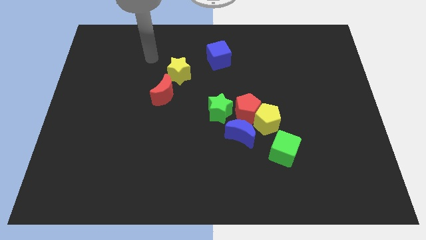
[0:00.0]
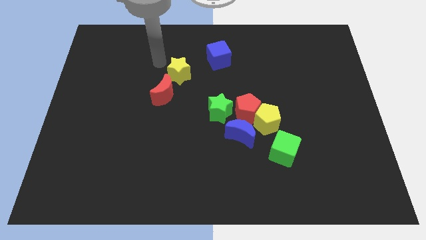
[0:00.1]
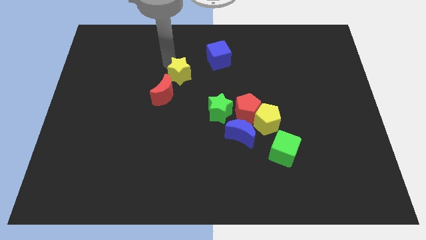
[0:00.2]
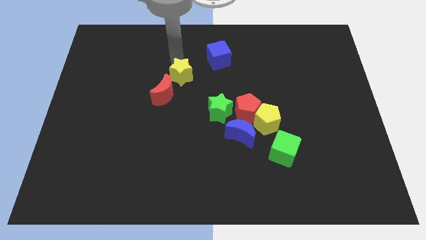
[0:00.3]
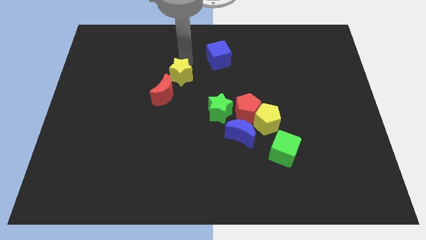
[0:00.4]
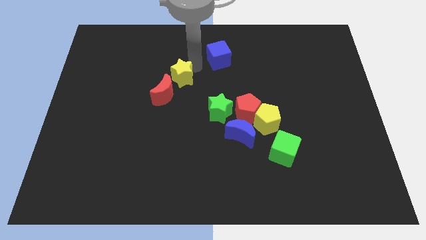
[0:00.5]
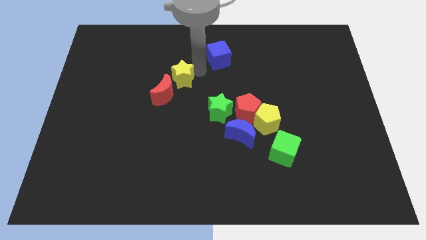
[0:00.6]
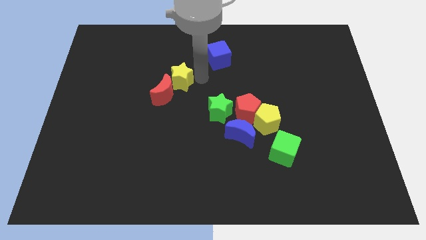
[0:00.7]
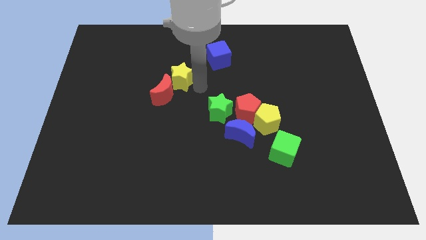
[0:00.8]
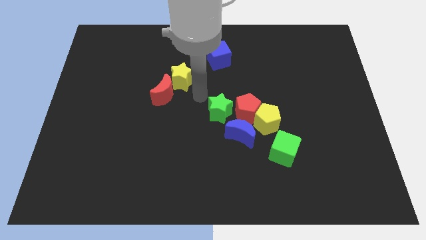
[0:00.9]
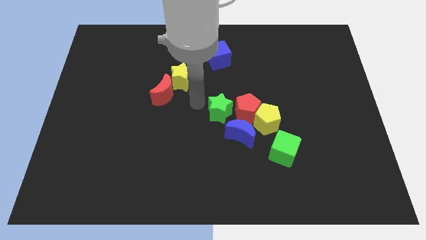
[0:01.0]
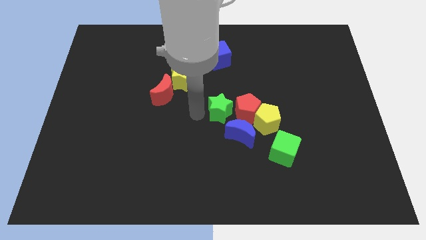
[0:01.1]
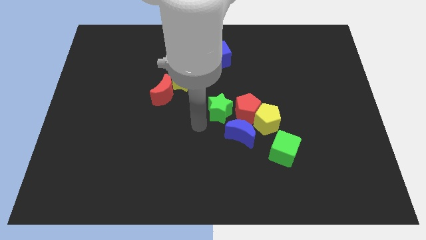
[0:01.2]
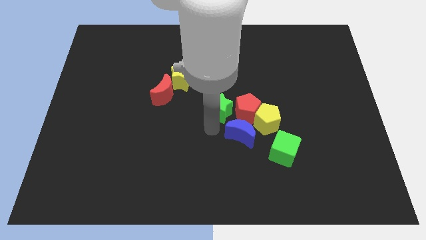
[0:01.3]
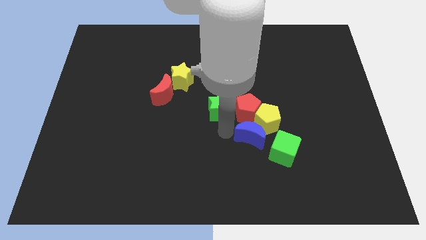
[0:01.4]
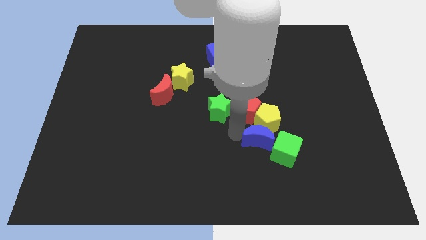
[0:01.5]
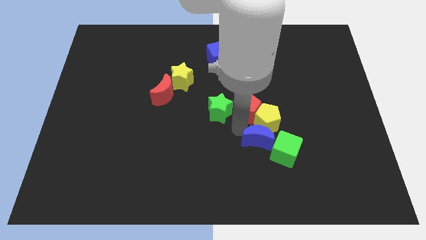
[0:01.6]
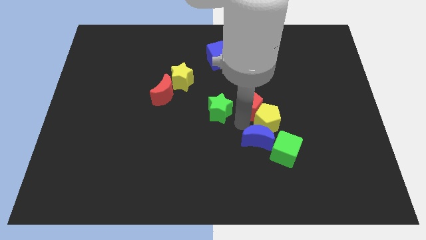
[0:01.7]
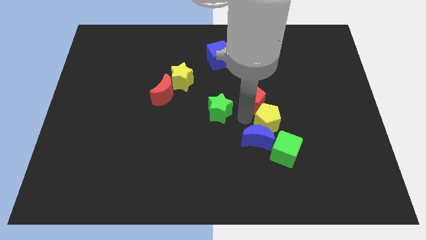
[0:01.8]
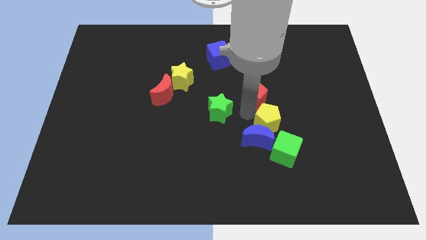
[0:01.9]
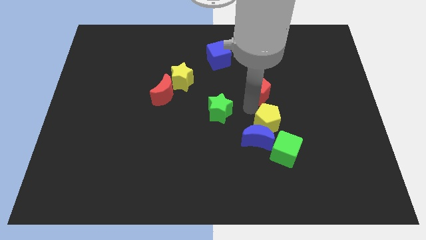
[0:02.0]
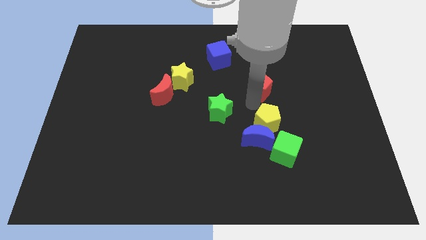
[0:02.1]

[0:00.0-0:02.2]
move the red pentagon away from the yellow pentagon, green star, and blue moon

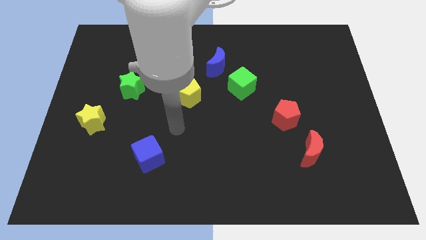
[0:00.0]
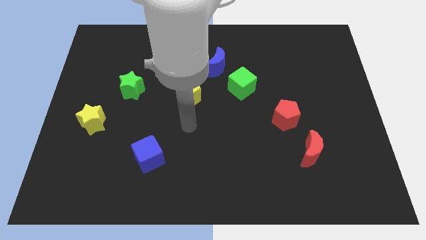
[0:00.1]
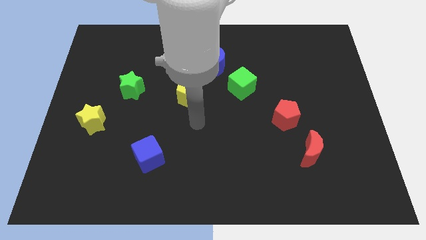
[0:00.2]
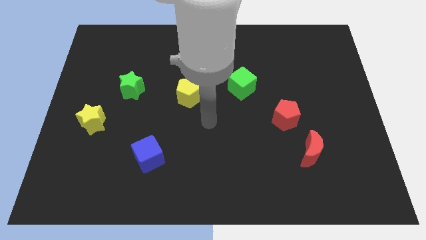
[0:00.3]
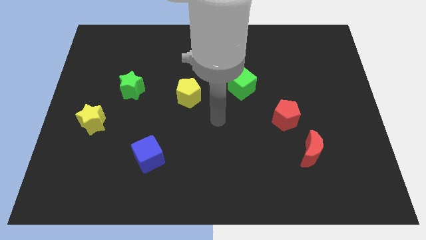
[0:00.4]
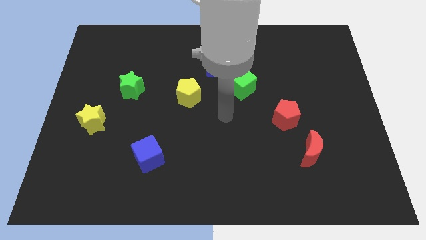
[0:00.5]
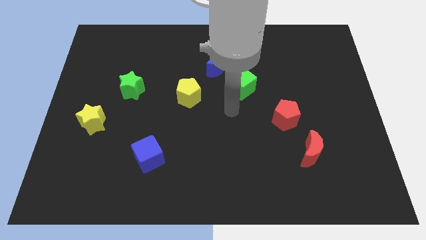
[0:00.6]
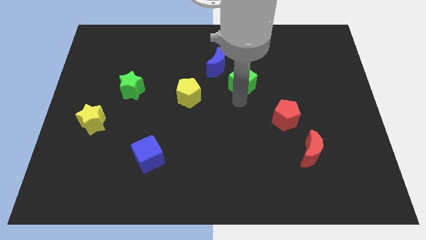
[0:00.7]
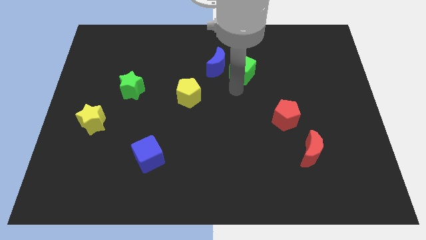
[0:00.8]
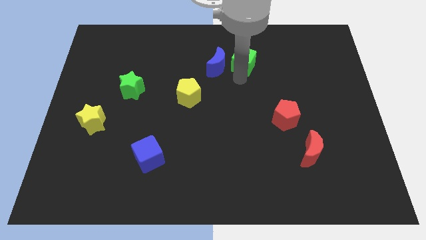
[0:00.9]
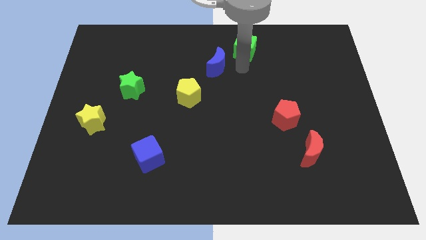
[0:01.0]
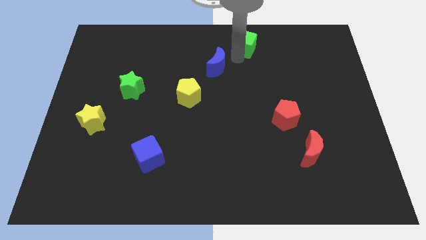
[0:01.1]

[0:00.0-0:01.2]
separate the blue moon from the green cube

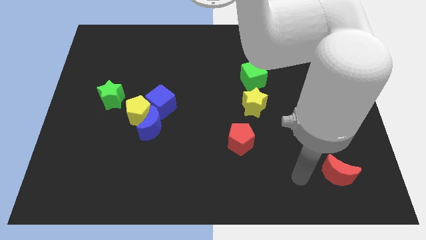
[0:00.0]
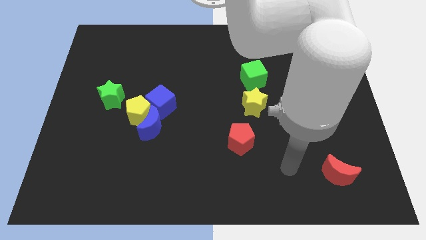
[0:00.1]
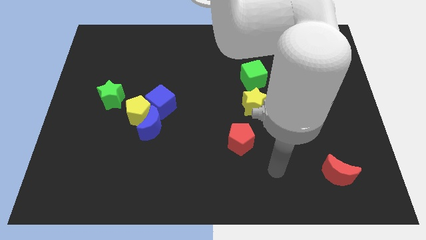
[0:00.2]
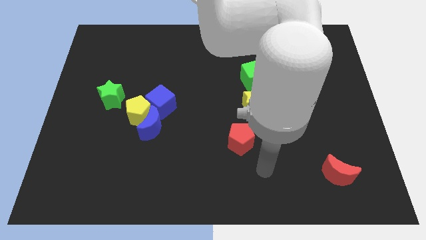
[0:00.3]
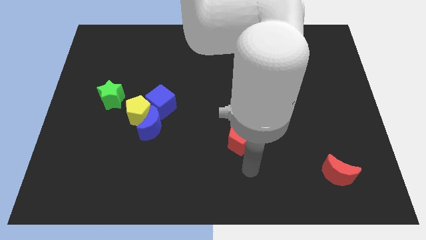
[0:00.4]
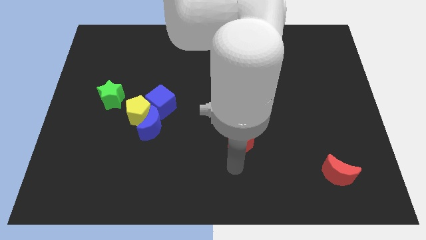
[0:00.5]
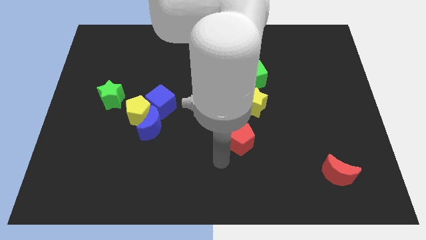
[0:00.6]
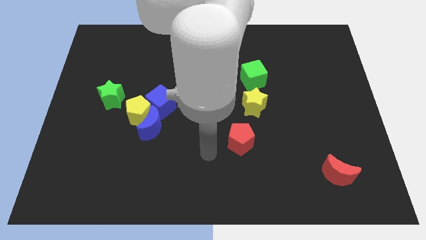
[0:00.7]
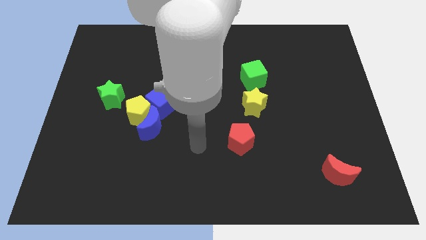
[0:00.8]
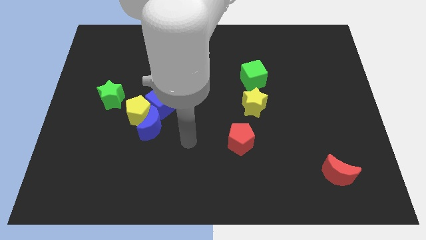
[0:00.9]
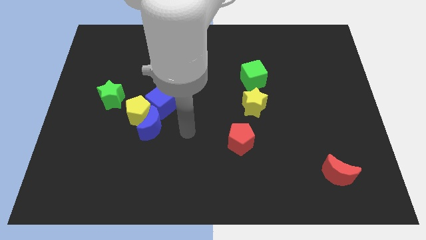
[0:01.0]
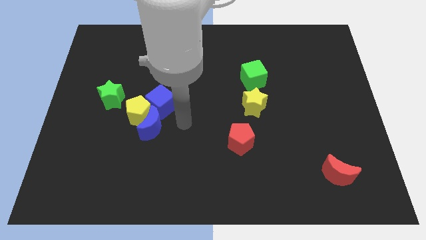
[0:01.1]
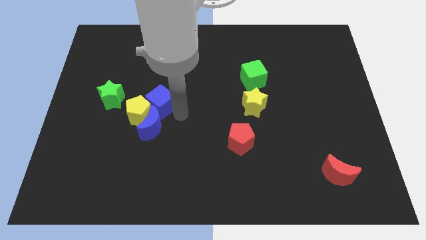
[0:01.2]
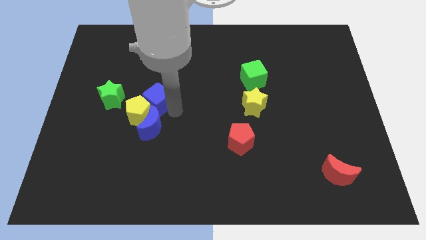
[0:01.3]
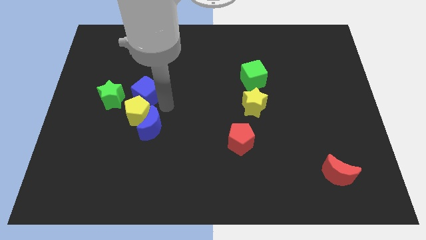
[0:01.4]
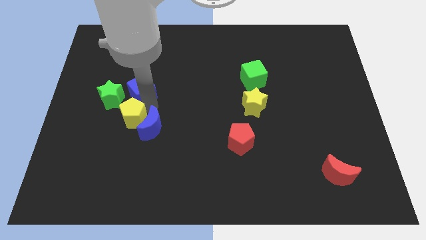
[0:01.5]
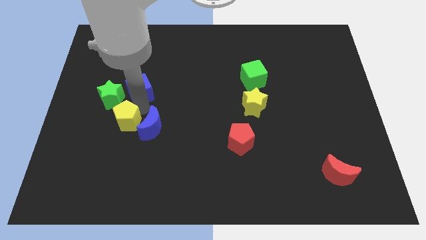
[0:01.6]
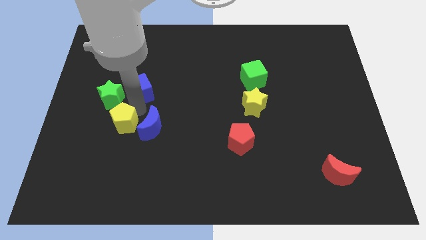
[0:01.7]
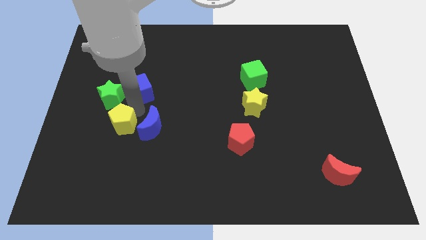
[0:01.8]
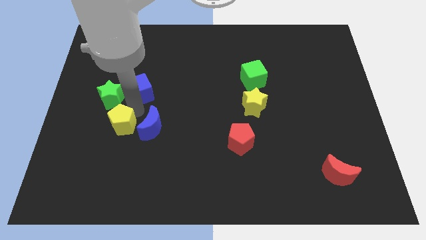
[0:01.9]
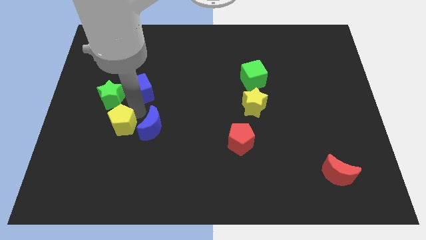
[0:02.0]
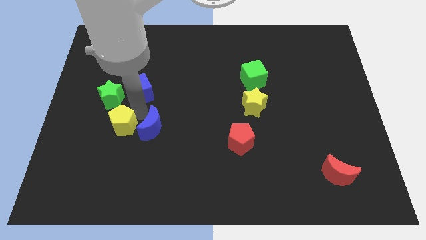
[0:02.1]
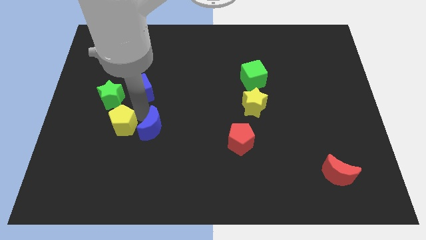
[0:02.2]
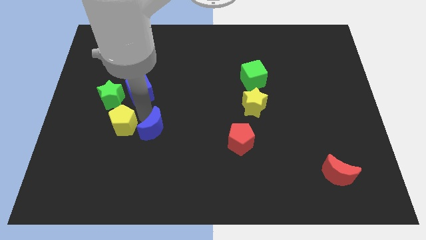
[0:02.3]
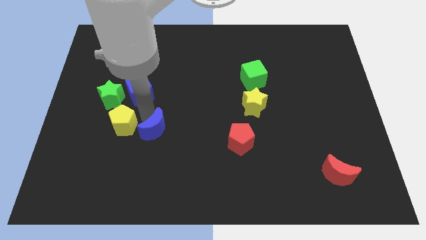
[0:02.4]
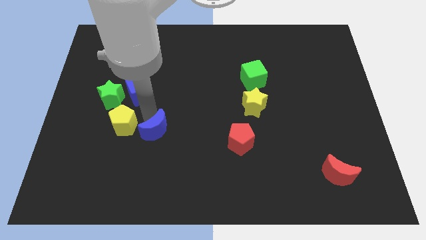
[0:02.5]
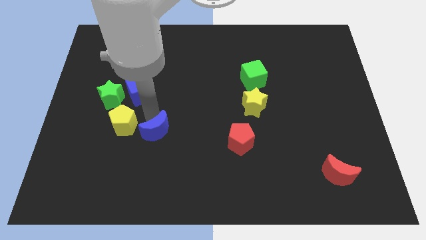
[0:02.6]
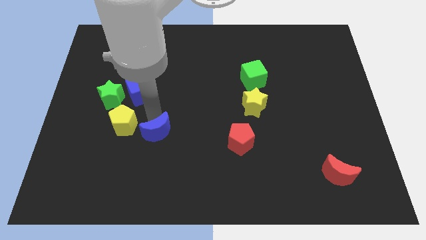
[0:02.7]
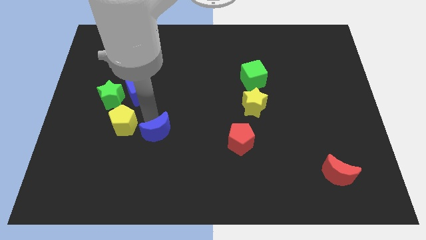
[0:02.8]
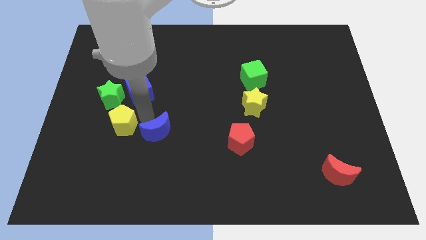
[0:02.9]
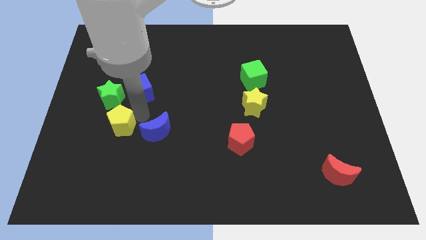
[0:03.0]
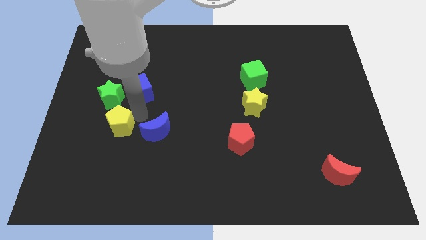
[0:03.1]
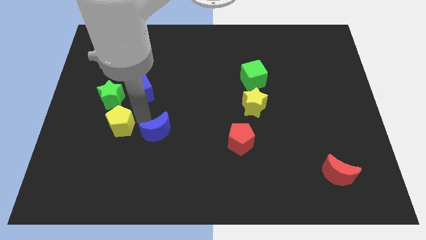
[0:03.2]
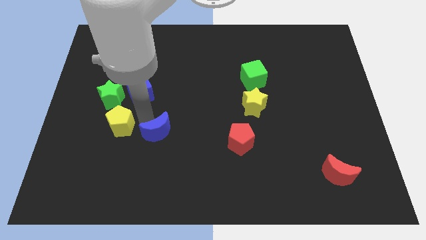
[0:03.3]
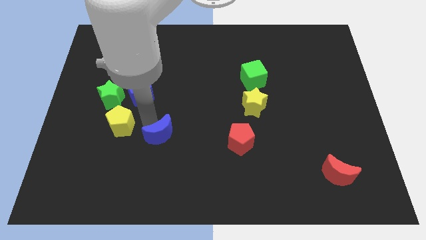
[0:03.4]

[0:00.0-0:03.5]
pull the blue moon apart from the yellow pentagon and blue cube

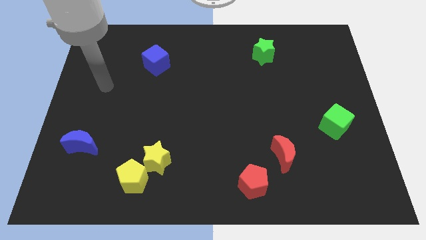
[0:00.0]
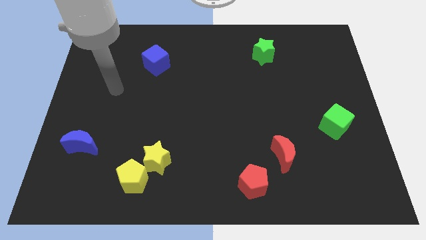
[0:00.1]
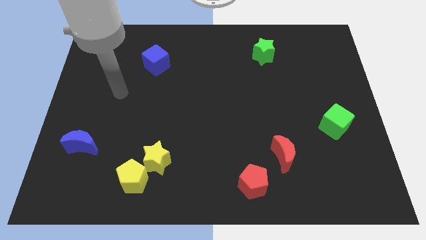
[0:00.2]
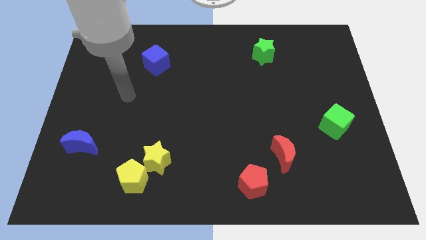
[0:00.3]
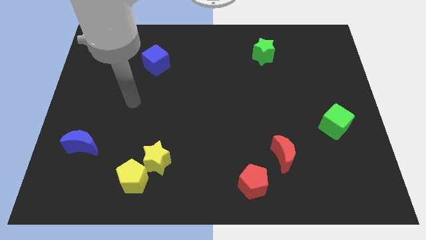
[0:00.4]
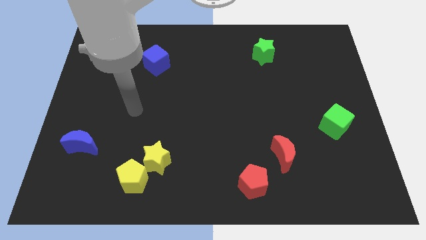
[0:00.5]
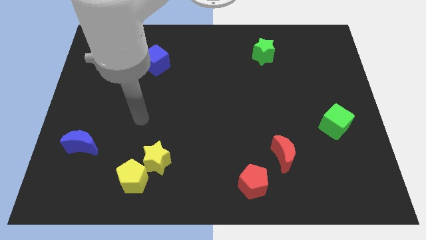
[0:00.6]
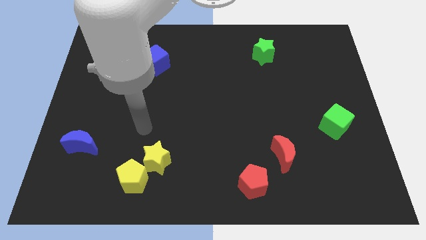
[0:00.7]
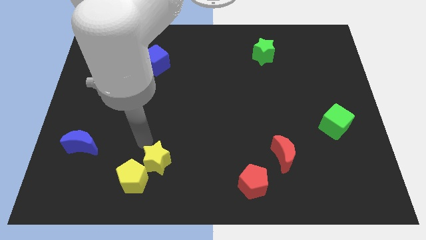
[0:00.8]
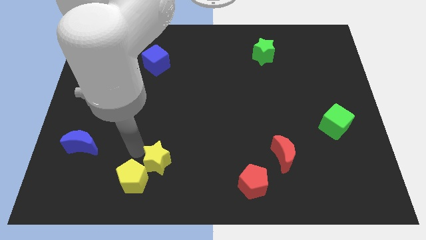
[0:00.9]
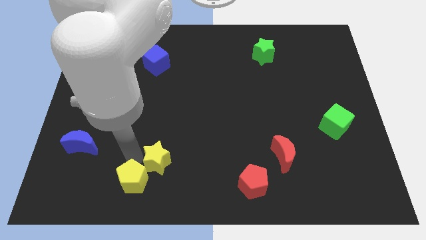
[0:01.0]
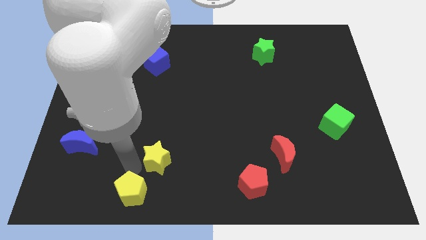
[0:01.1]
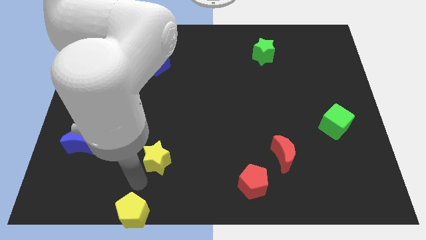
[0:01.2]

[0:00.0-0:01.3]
move the yellow star away from the yellow pentagon

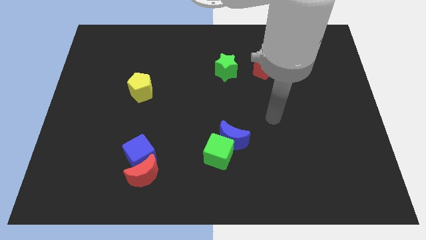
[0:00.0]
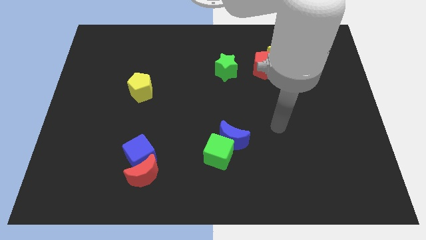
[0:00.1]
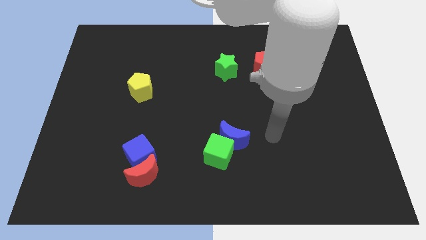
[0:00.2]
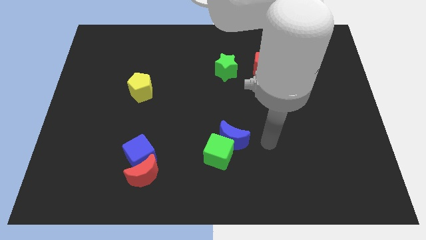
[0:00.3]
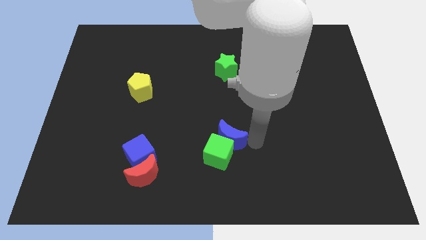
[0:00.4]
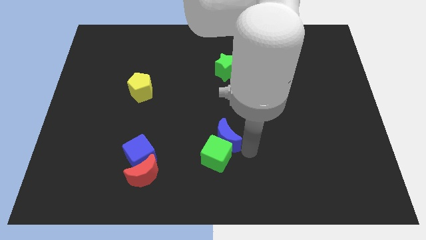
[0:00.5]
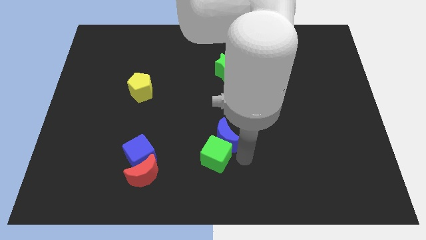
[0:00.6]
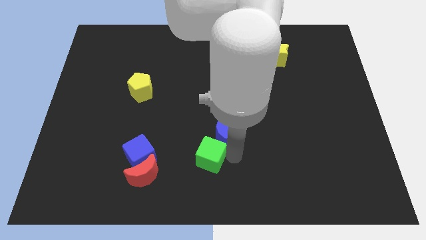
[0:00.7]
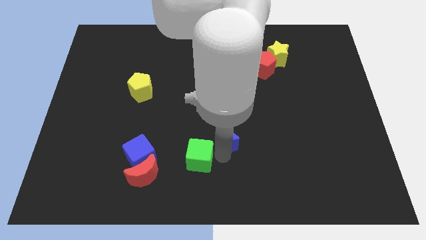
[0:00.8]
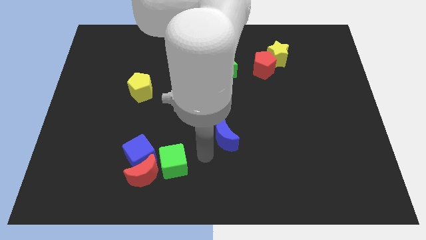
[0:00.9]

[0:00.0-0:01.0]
pull the blue moon apart from the green cube

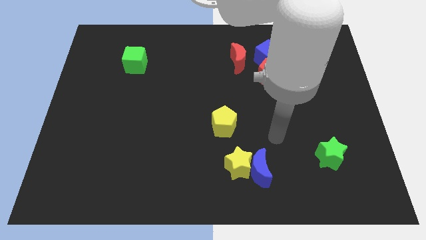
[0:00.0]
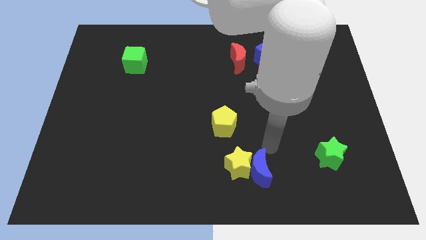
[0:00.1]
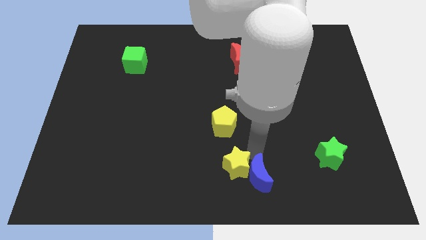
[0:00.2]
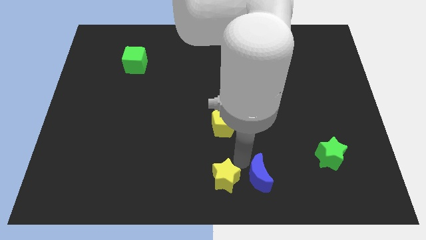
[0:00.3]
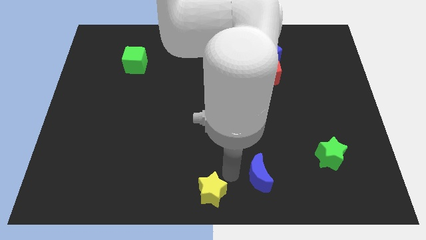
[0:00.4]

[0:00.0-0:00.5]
separate the blue moon from the yellow star
